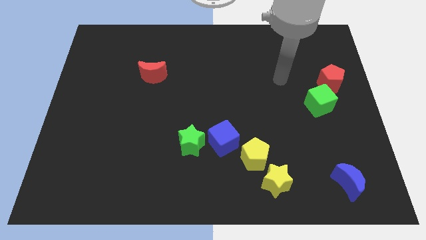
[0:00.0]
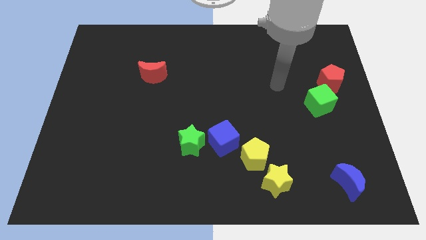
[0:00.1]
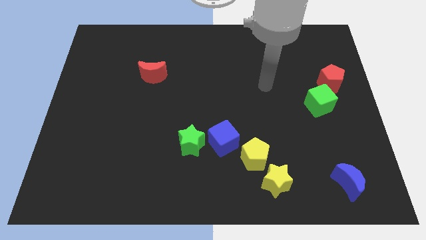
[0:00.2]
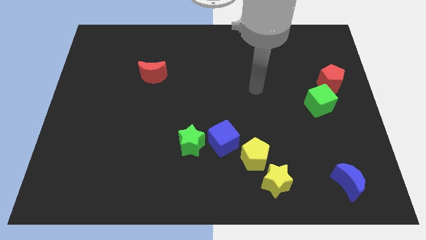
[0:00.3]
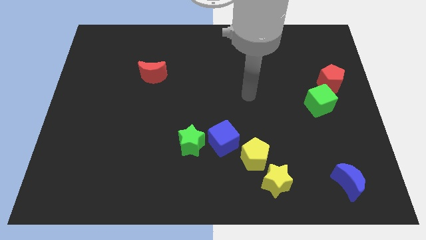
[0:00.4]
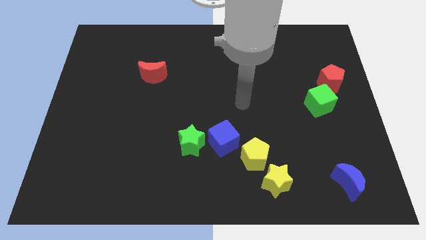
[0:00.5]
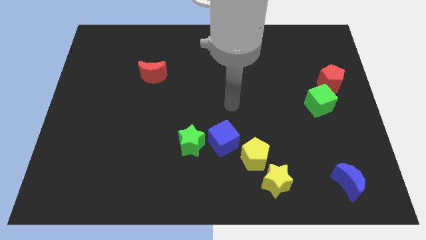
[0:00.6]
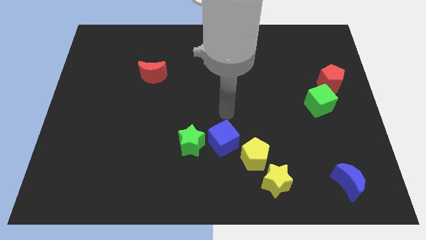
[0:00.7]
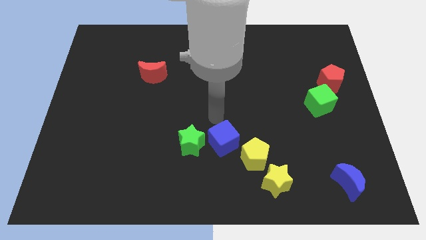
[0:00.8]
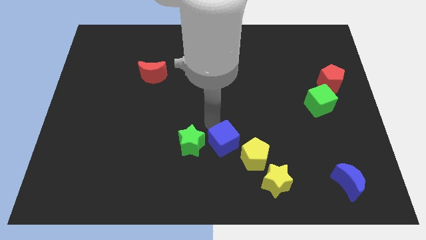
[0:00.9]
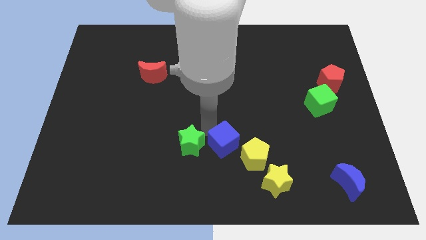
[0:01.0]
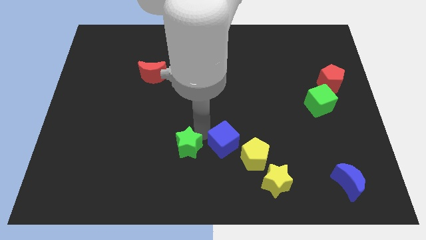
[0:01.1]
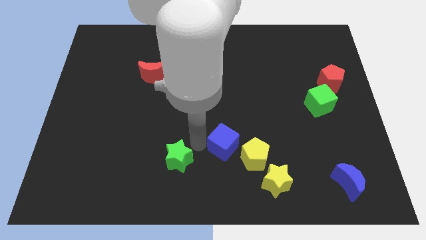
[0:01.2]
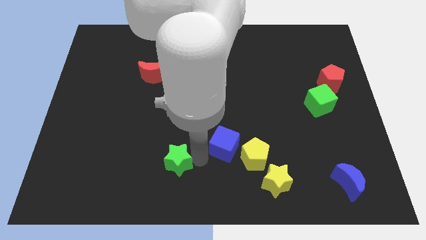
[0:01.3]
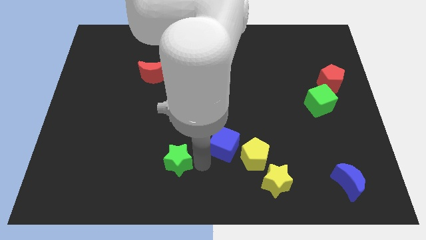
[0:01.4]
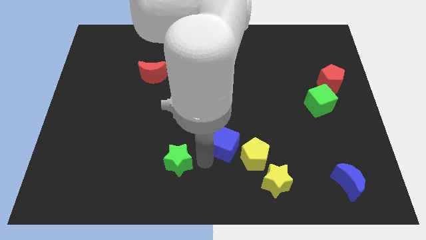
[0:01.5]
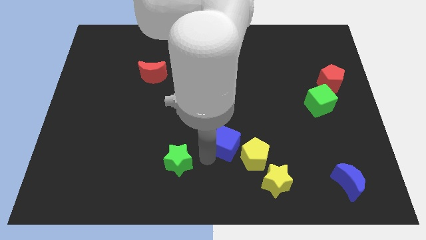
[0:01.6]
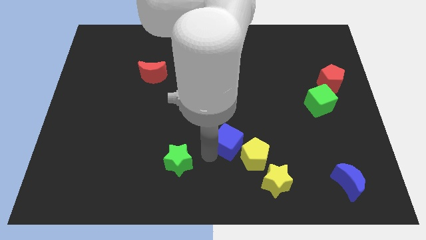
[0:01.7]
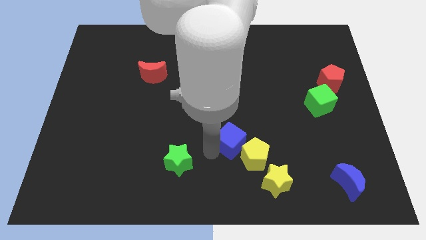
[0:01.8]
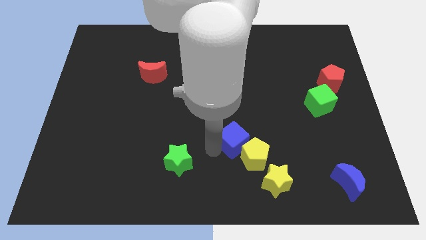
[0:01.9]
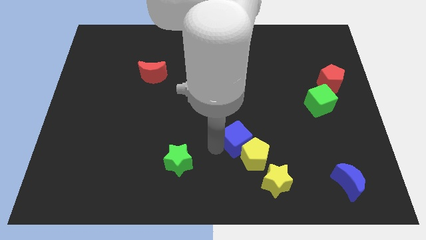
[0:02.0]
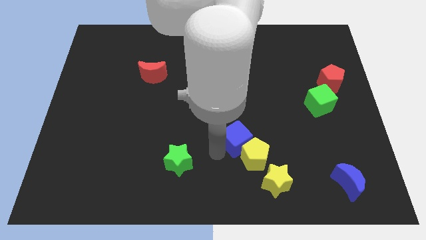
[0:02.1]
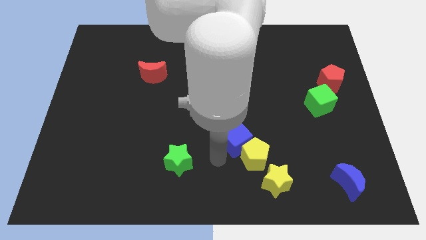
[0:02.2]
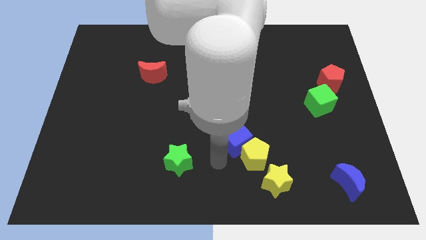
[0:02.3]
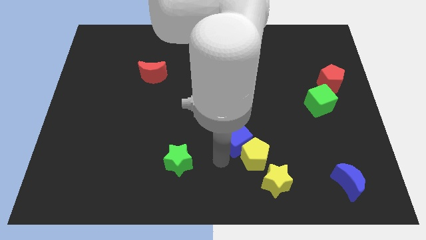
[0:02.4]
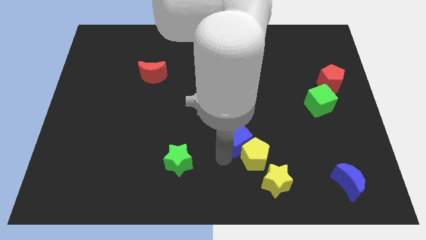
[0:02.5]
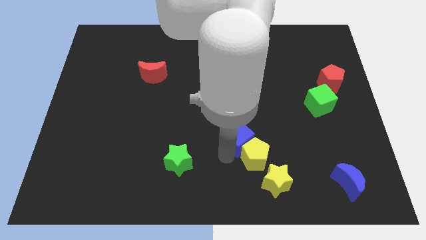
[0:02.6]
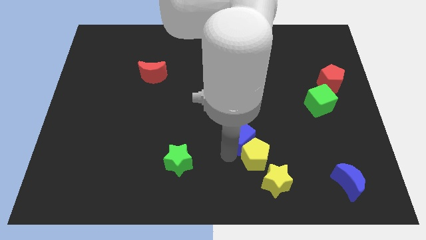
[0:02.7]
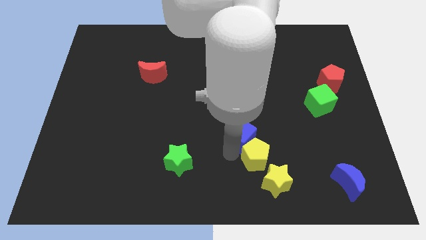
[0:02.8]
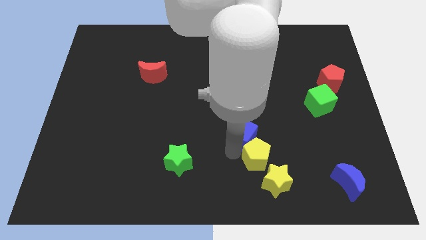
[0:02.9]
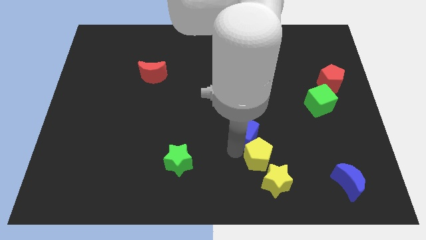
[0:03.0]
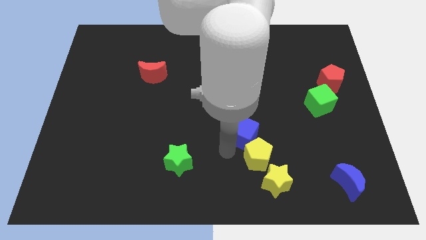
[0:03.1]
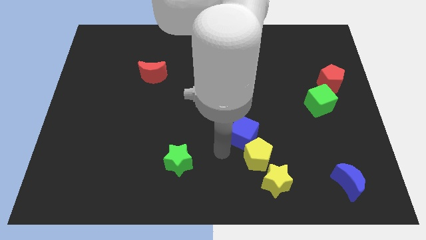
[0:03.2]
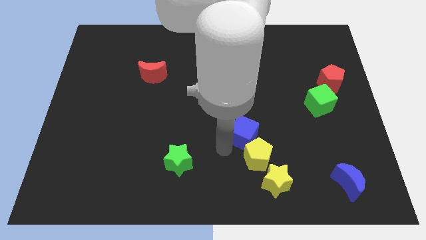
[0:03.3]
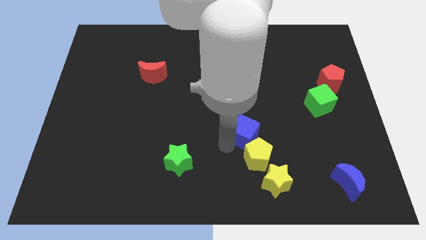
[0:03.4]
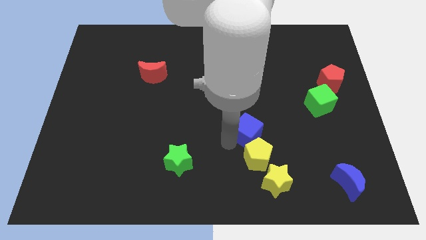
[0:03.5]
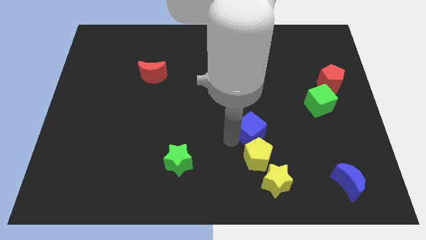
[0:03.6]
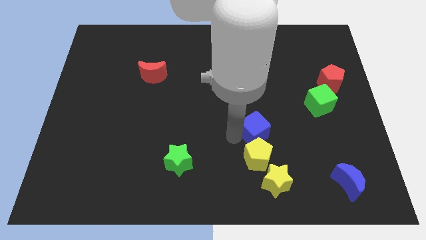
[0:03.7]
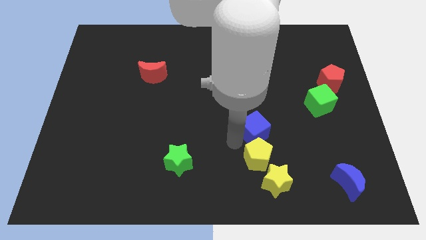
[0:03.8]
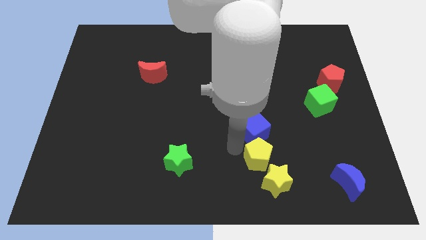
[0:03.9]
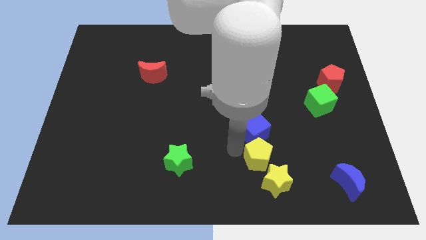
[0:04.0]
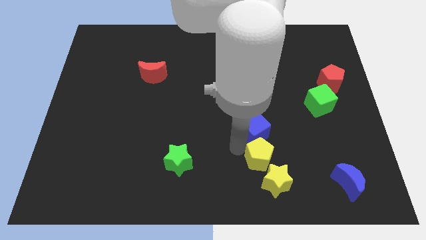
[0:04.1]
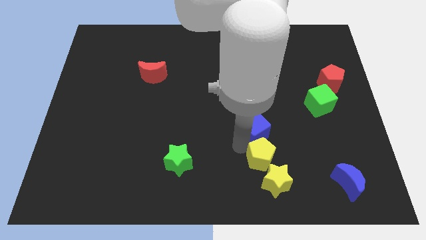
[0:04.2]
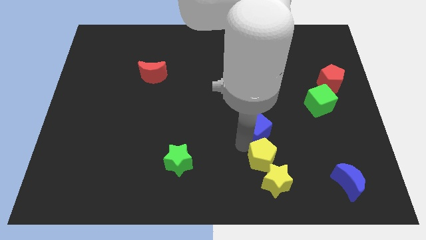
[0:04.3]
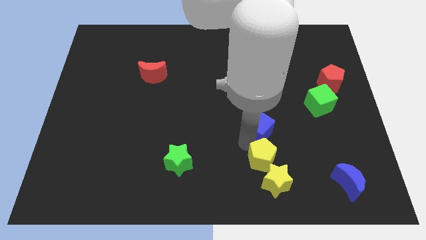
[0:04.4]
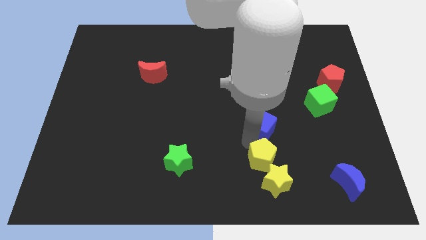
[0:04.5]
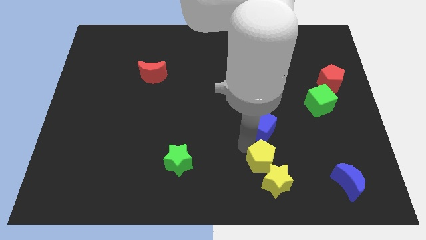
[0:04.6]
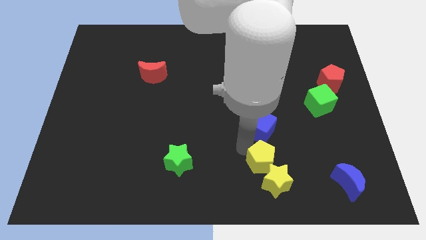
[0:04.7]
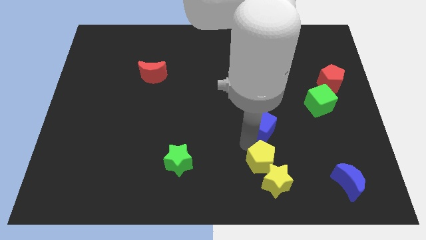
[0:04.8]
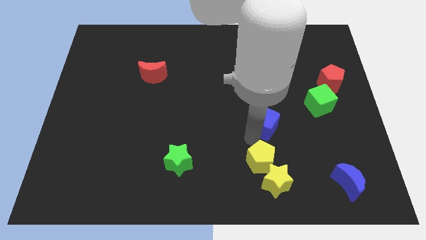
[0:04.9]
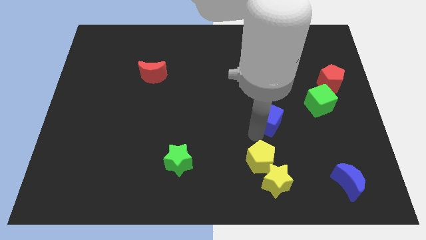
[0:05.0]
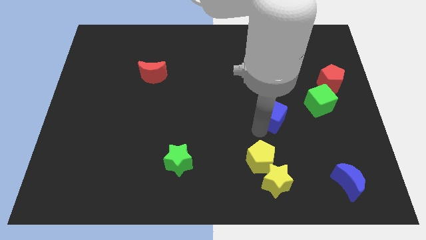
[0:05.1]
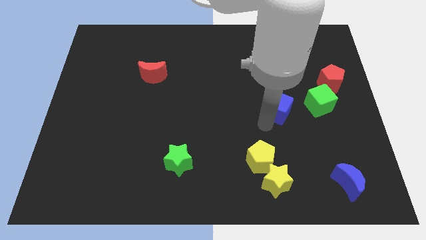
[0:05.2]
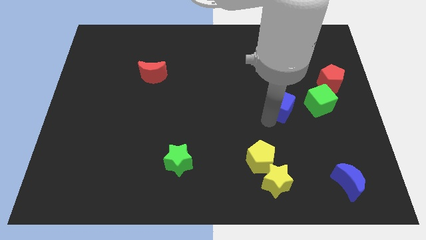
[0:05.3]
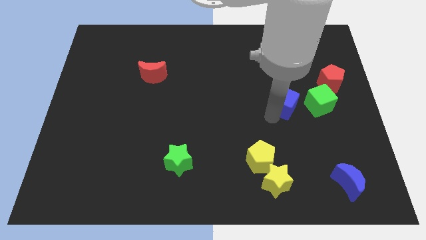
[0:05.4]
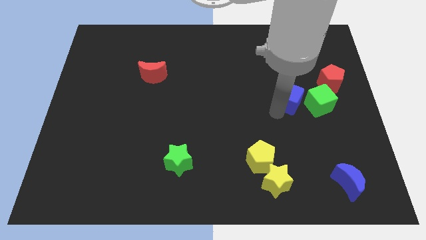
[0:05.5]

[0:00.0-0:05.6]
push the blue cube diagonally up and to the left of the green cube

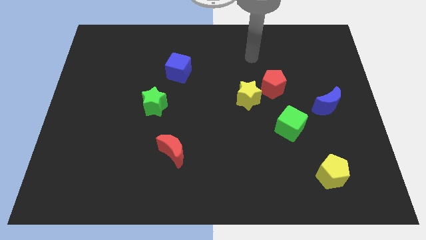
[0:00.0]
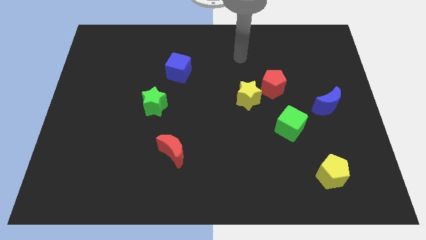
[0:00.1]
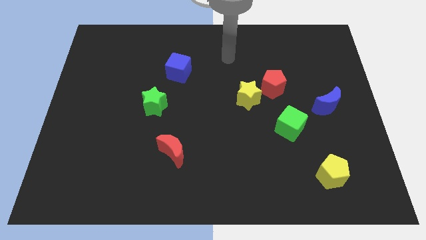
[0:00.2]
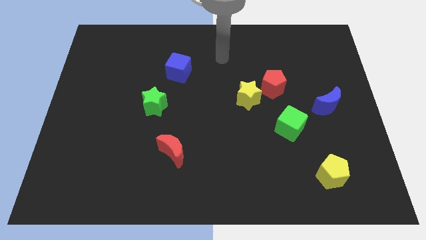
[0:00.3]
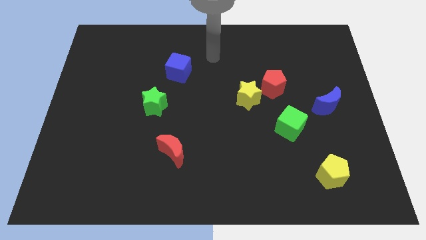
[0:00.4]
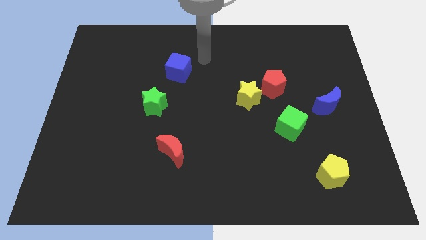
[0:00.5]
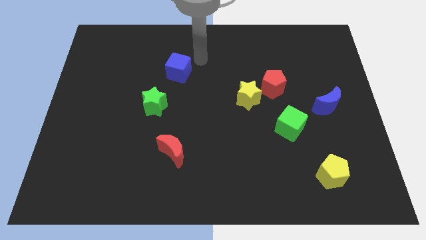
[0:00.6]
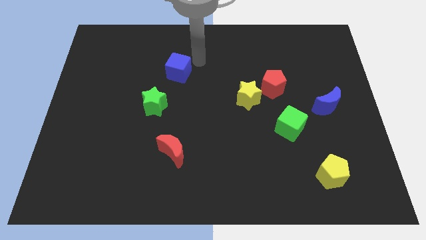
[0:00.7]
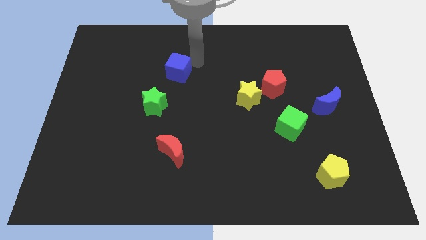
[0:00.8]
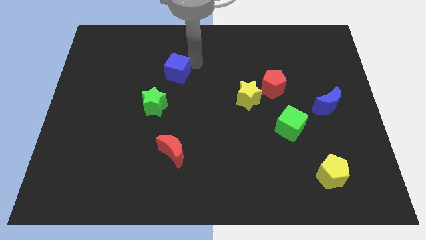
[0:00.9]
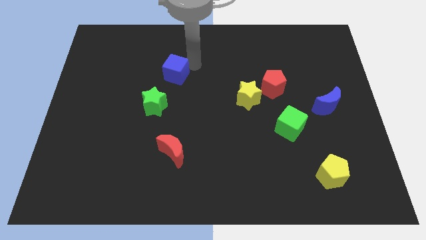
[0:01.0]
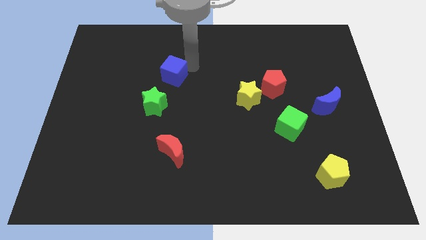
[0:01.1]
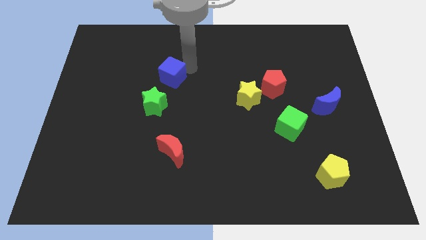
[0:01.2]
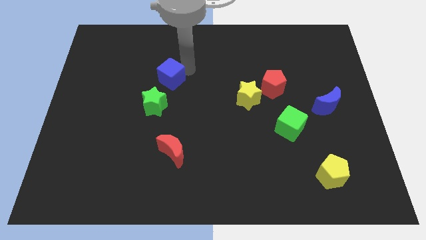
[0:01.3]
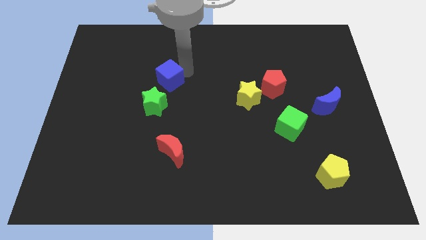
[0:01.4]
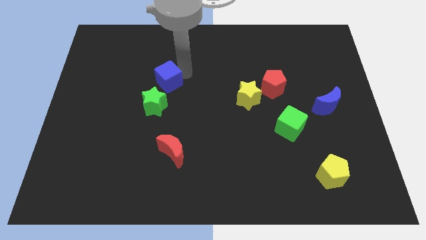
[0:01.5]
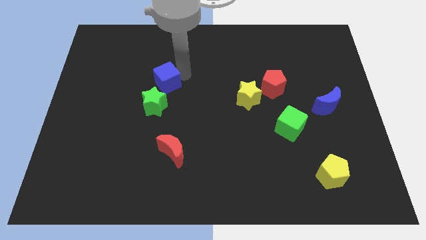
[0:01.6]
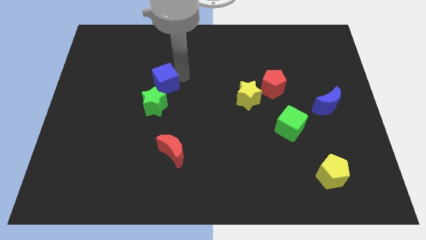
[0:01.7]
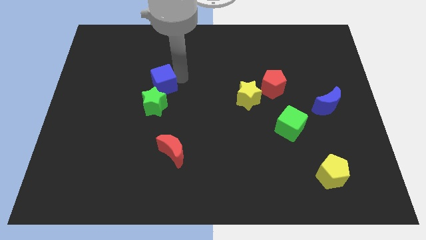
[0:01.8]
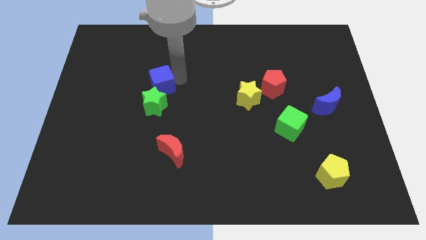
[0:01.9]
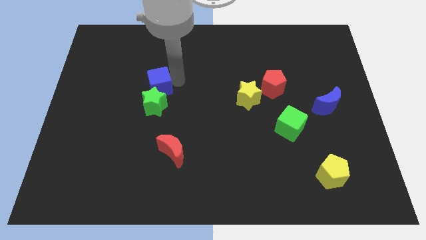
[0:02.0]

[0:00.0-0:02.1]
push the blue cube to the top left side of the green star
